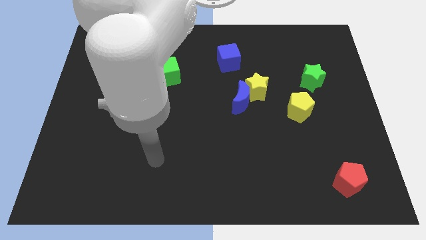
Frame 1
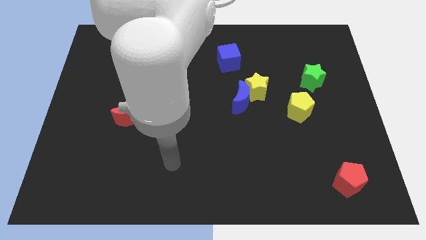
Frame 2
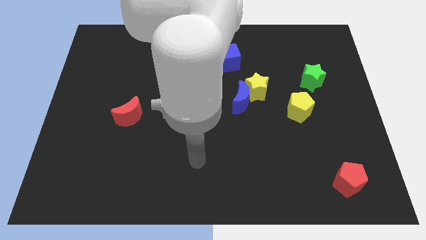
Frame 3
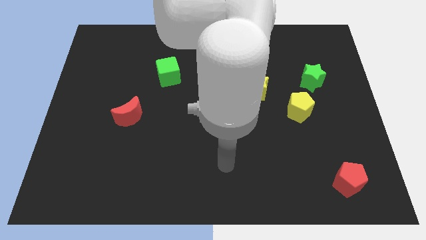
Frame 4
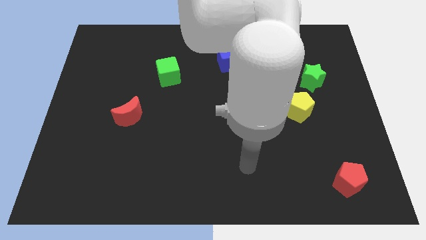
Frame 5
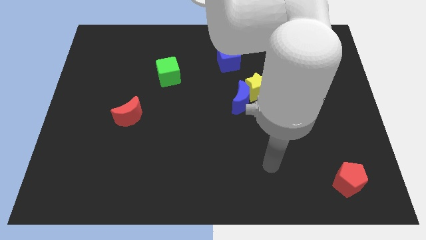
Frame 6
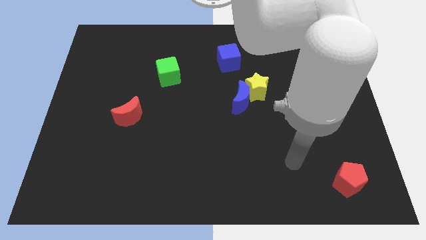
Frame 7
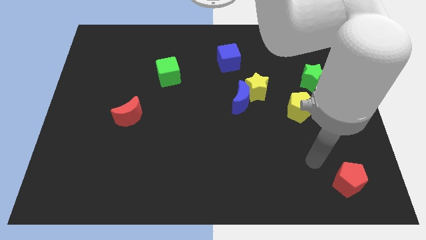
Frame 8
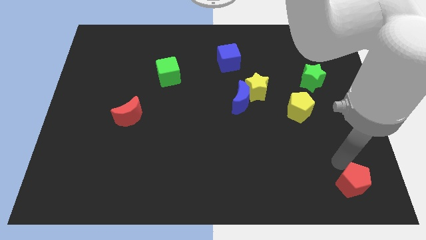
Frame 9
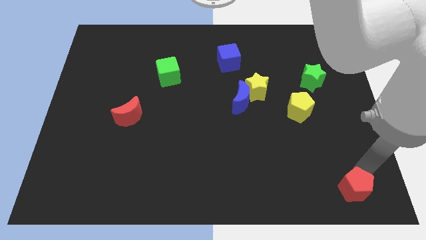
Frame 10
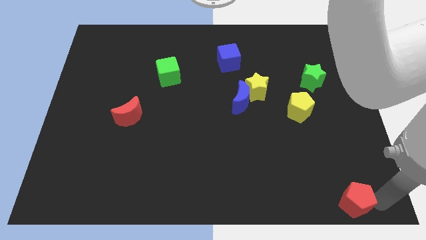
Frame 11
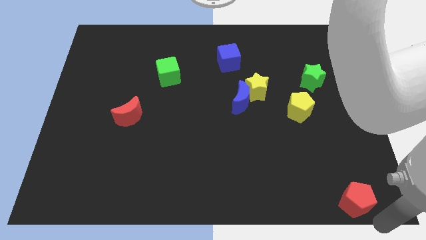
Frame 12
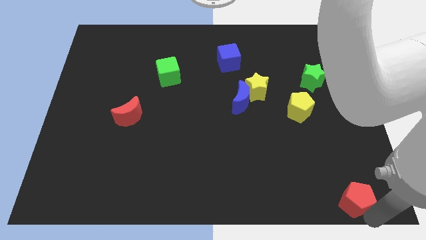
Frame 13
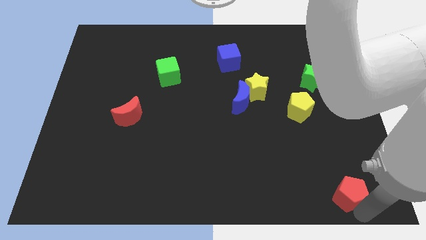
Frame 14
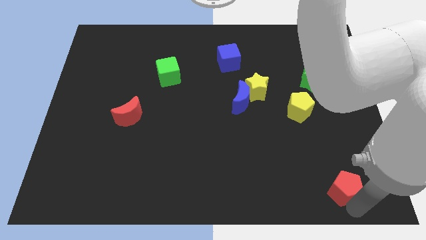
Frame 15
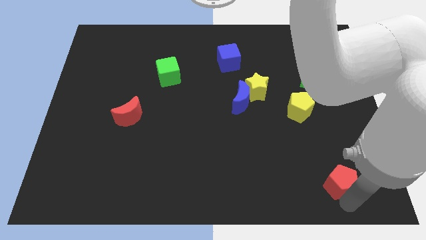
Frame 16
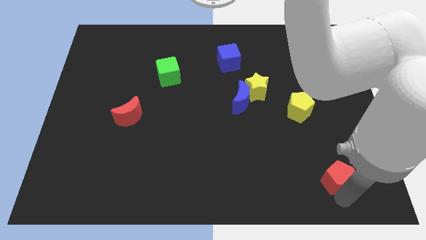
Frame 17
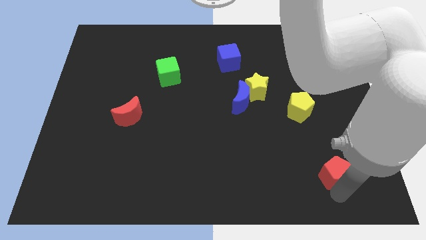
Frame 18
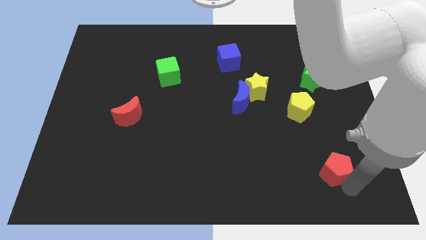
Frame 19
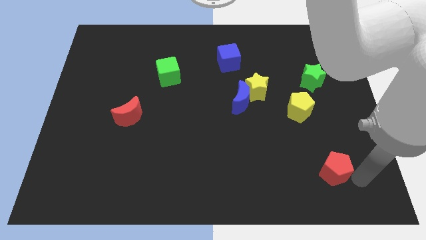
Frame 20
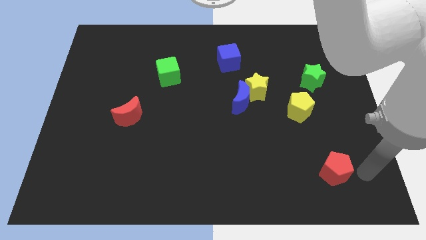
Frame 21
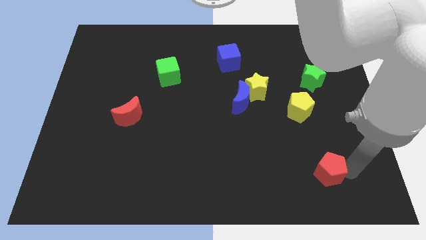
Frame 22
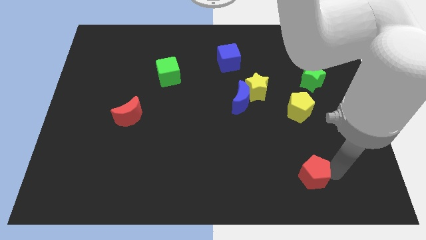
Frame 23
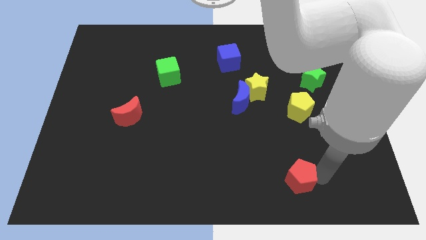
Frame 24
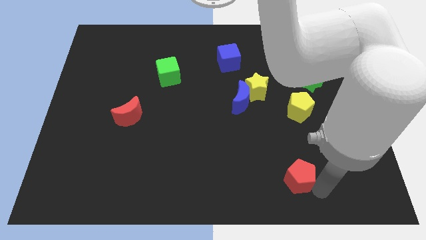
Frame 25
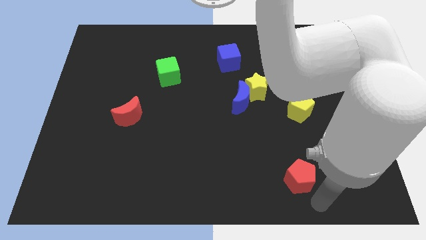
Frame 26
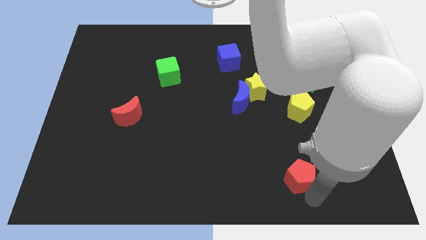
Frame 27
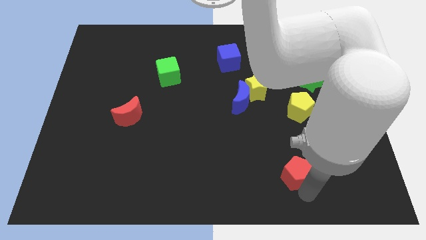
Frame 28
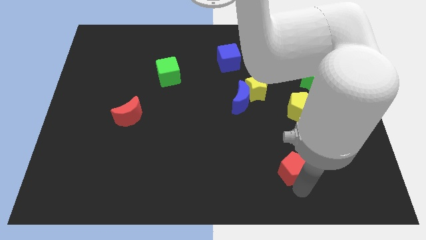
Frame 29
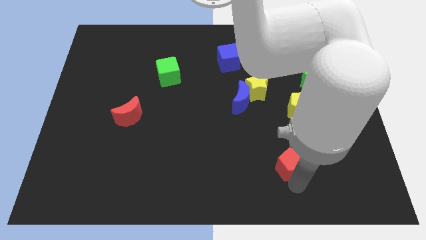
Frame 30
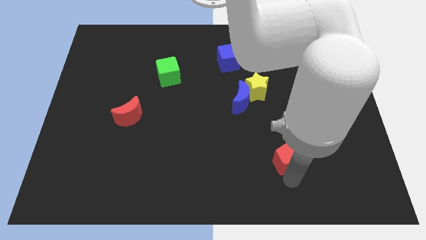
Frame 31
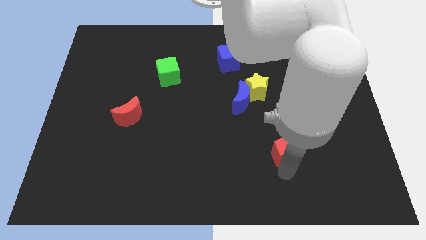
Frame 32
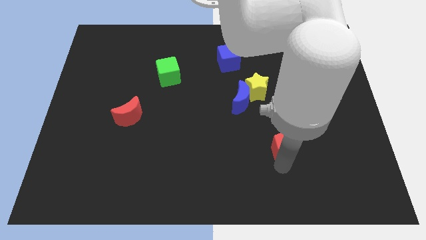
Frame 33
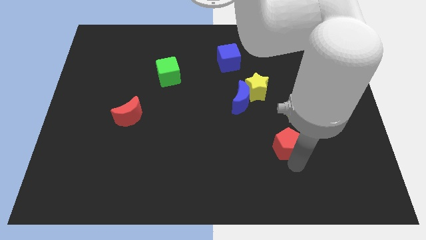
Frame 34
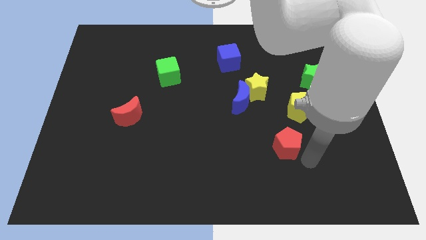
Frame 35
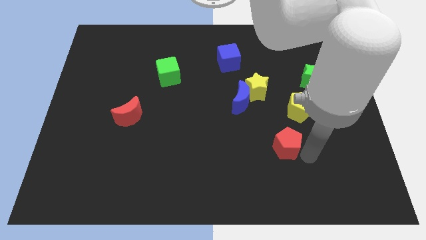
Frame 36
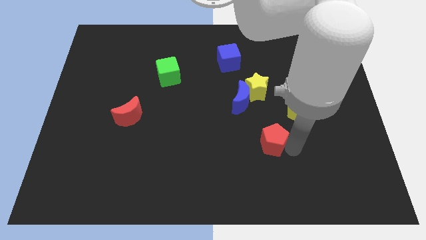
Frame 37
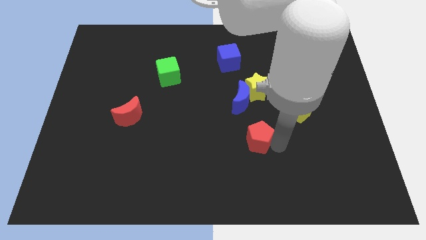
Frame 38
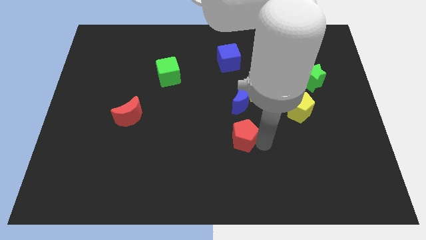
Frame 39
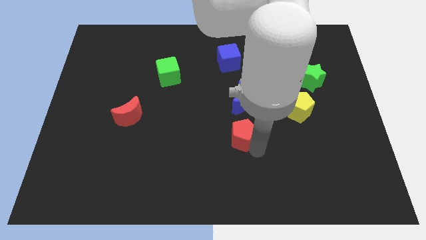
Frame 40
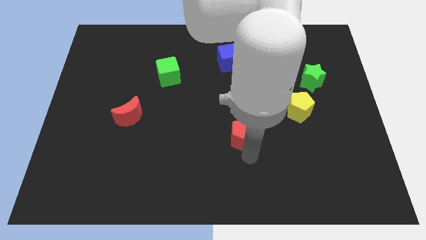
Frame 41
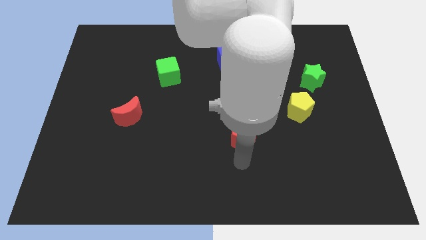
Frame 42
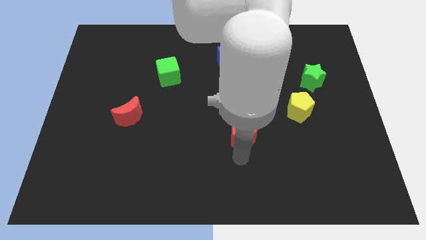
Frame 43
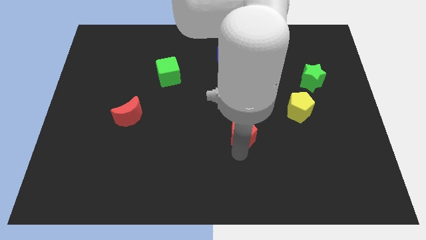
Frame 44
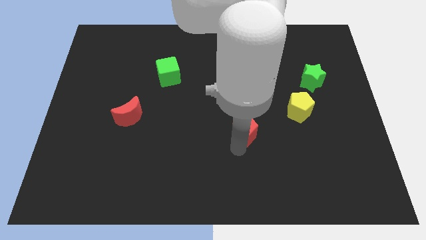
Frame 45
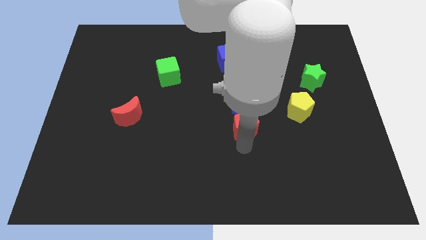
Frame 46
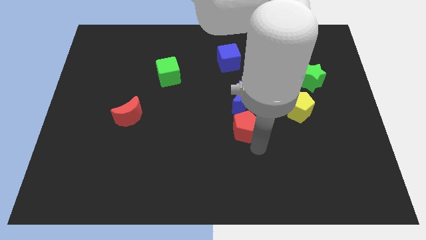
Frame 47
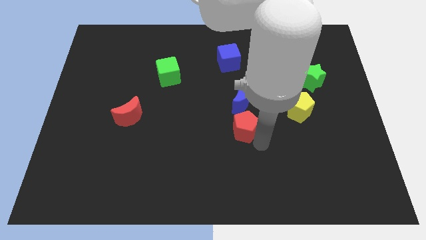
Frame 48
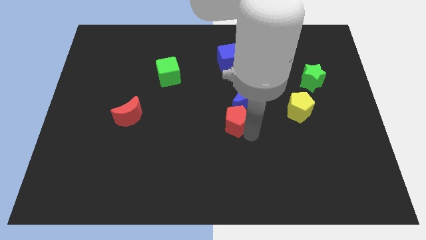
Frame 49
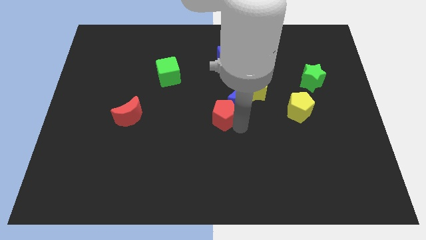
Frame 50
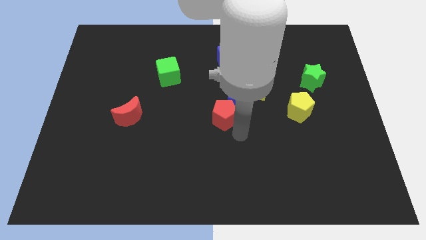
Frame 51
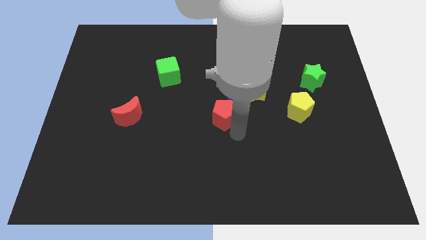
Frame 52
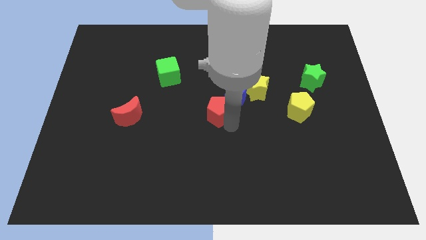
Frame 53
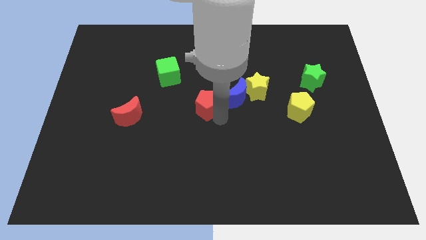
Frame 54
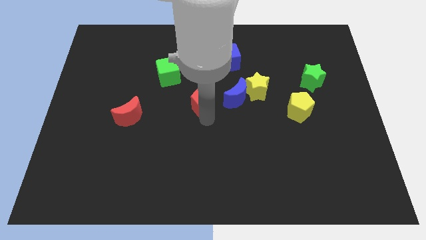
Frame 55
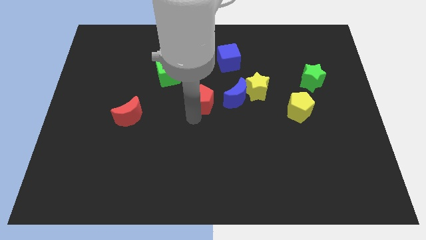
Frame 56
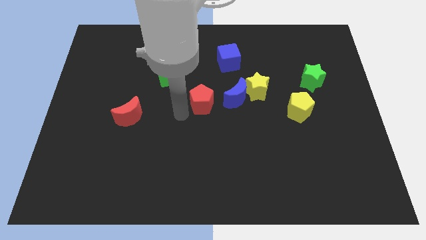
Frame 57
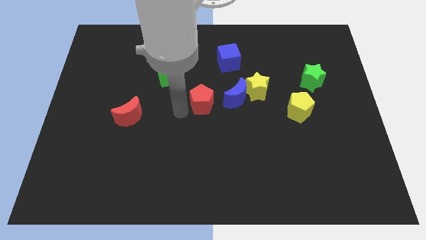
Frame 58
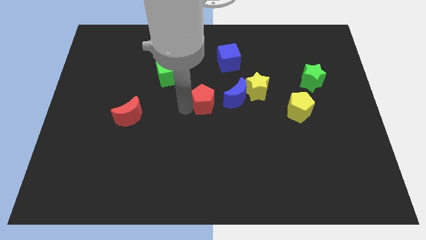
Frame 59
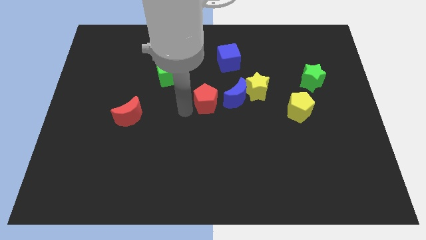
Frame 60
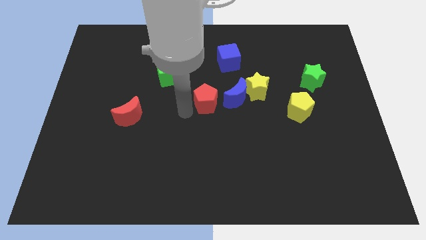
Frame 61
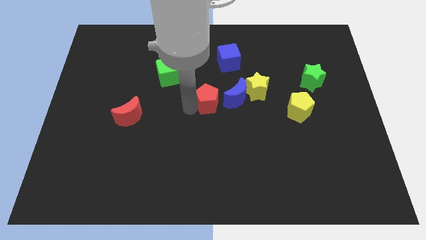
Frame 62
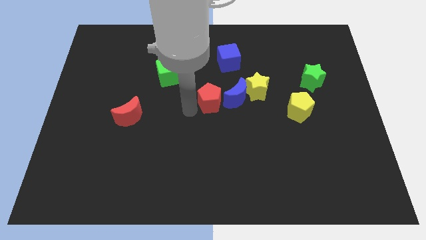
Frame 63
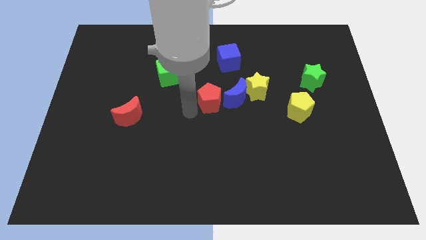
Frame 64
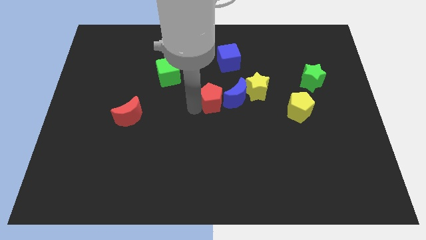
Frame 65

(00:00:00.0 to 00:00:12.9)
move the red pentagon to the bottom of the blue cube

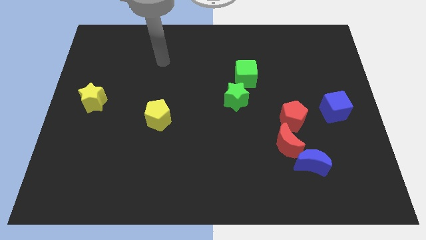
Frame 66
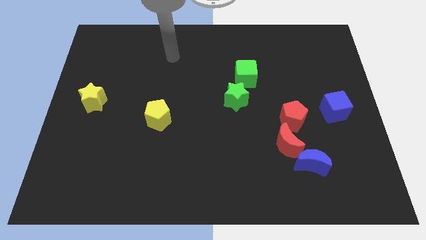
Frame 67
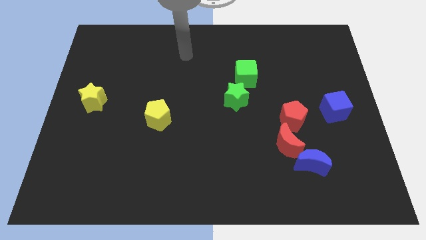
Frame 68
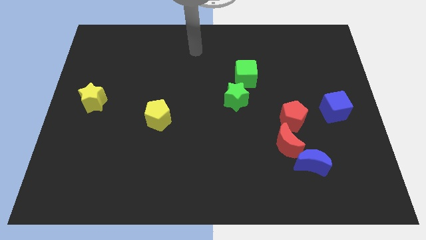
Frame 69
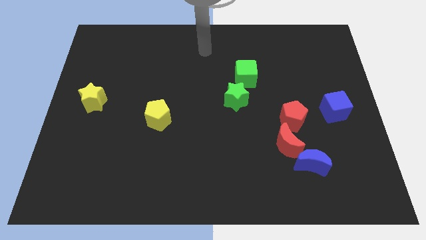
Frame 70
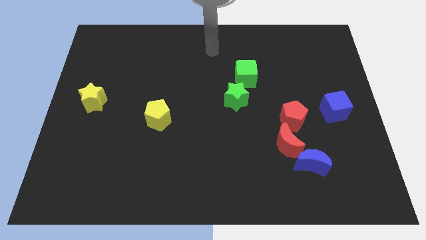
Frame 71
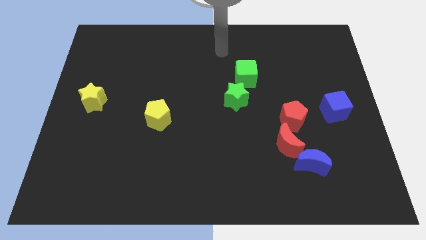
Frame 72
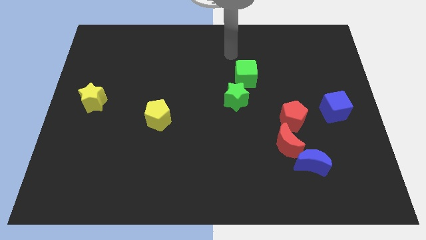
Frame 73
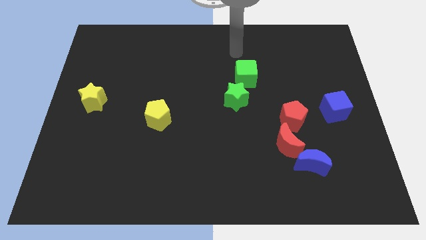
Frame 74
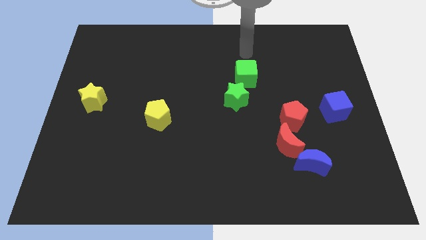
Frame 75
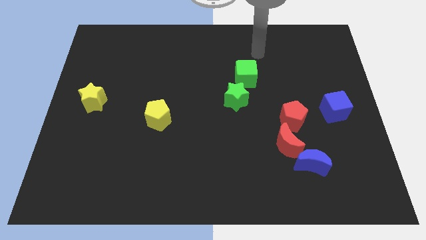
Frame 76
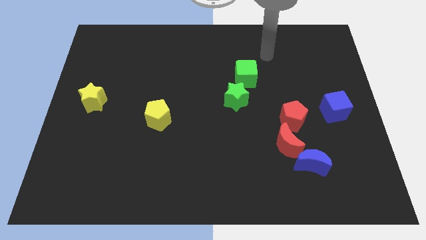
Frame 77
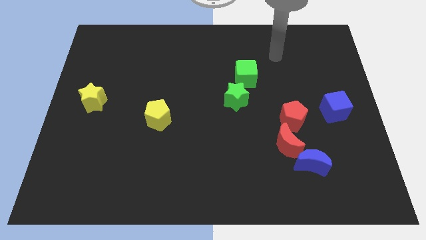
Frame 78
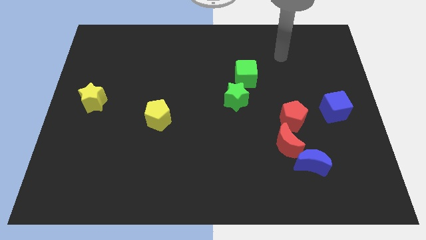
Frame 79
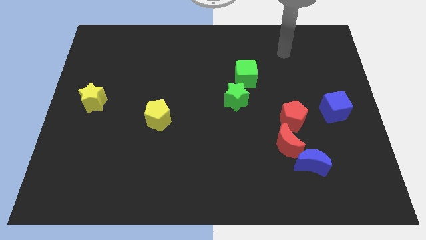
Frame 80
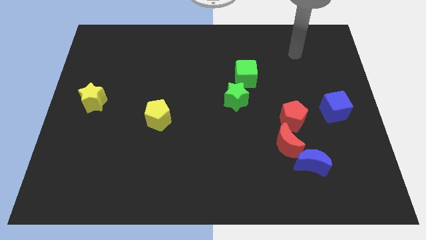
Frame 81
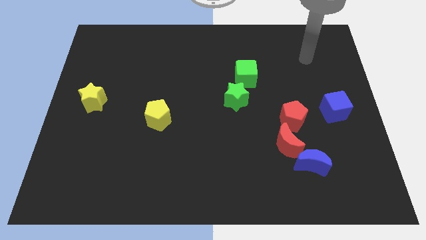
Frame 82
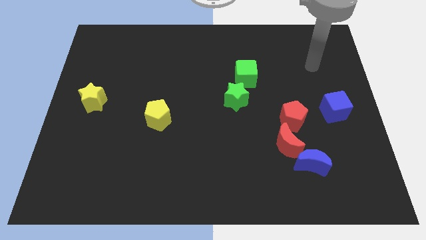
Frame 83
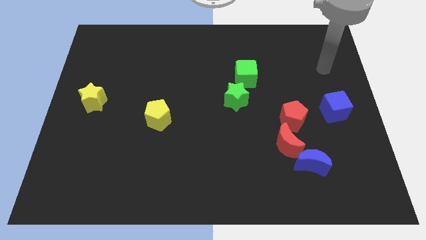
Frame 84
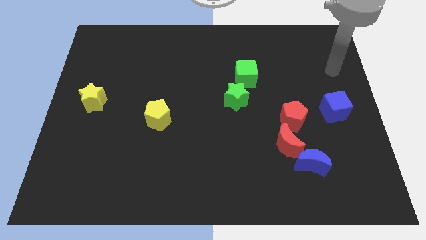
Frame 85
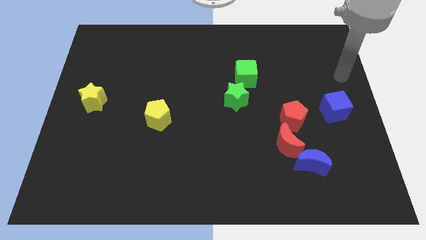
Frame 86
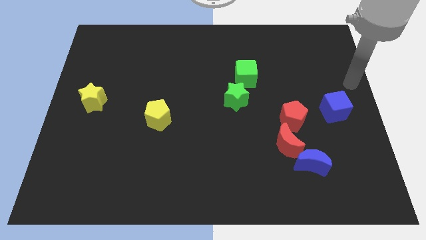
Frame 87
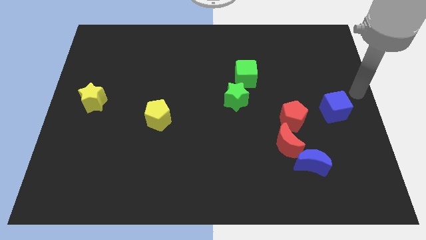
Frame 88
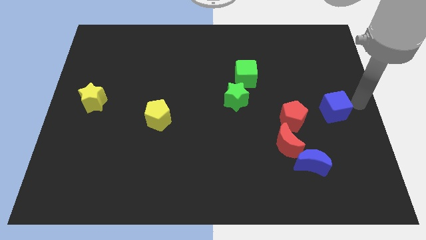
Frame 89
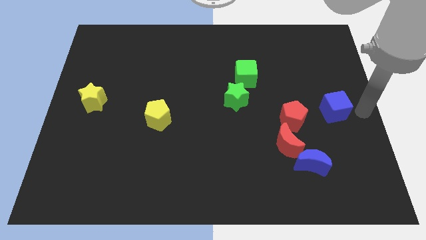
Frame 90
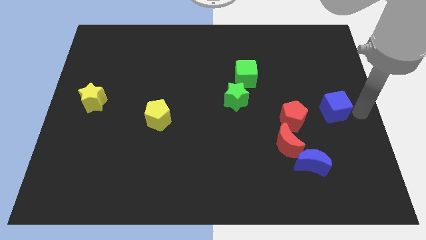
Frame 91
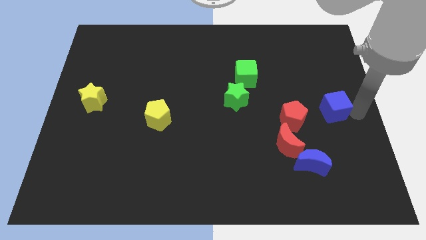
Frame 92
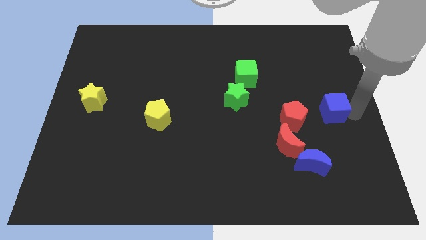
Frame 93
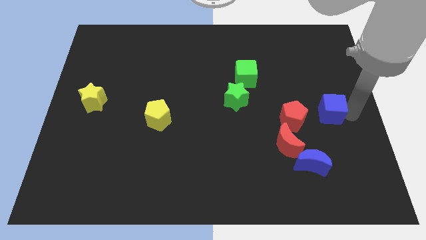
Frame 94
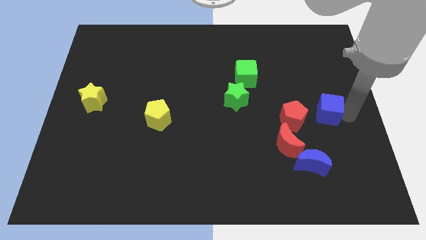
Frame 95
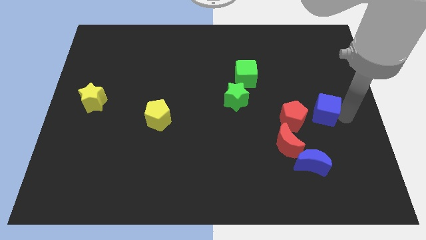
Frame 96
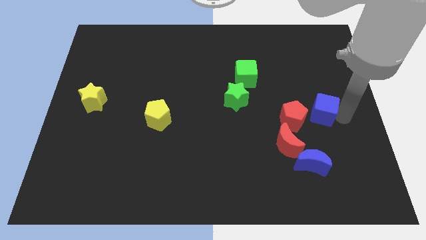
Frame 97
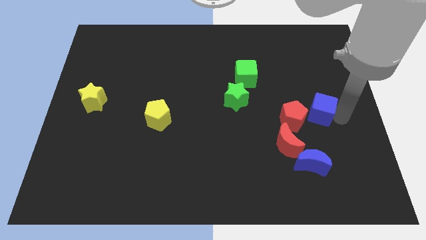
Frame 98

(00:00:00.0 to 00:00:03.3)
move the blue cube above the blue moon
